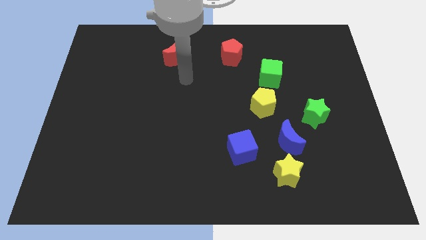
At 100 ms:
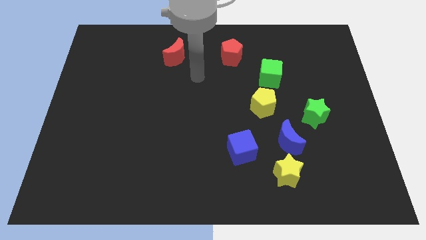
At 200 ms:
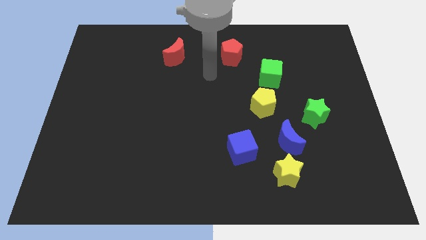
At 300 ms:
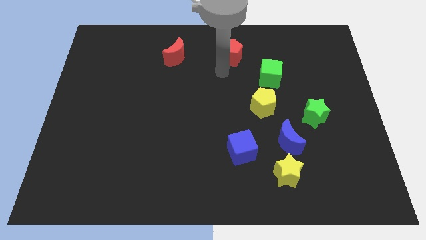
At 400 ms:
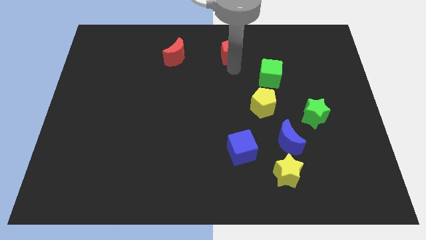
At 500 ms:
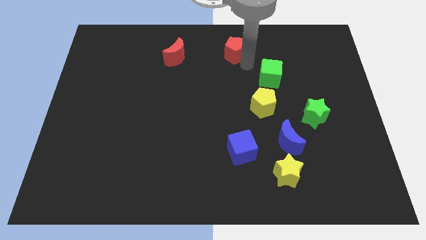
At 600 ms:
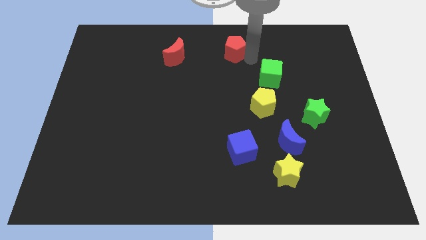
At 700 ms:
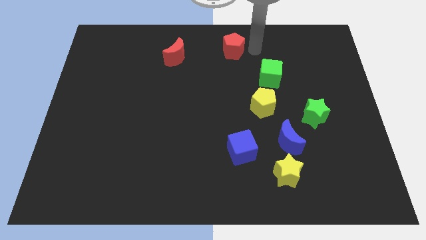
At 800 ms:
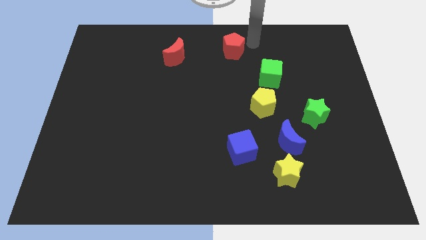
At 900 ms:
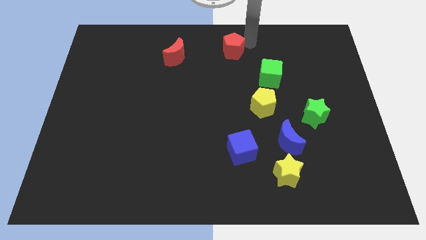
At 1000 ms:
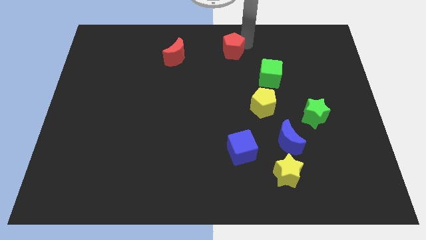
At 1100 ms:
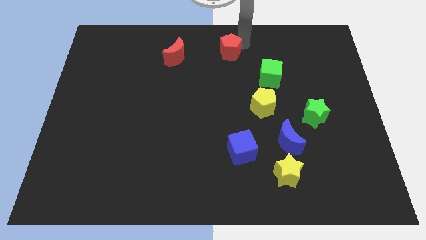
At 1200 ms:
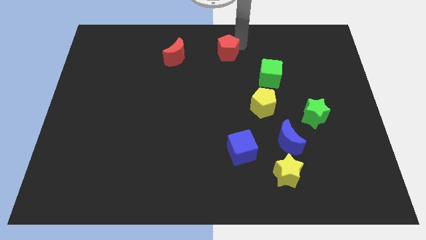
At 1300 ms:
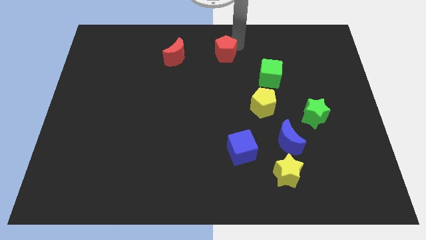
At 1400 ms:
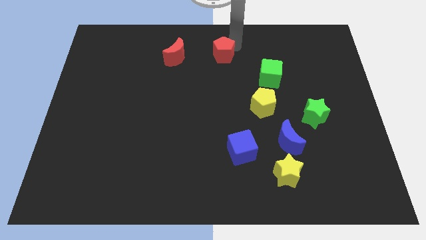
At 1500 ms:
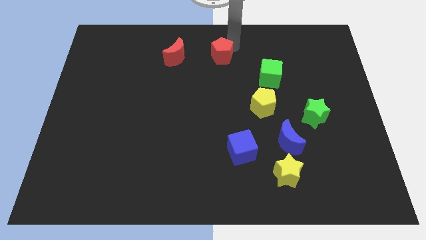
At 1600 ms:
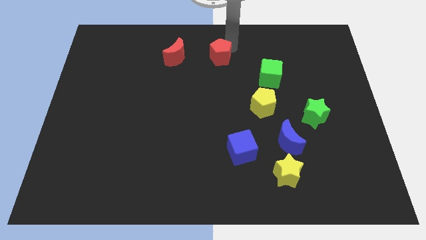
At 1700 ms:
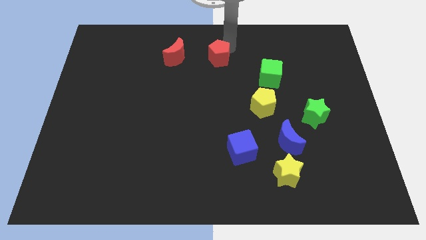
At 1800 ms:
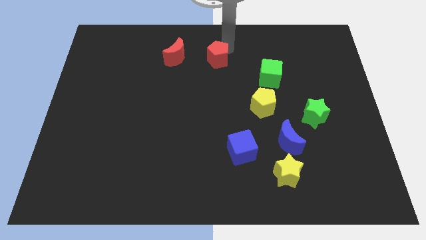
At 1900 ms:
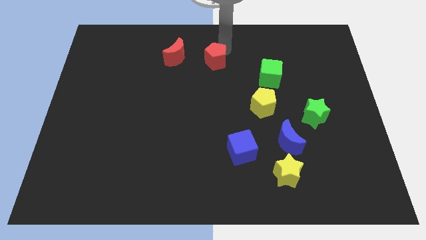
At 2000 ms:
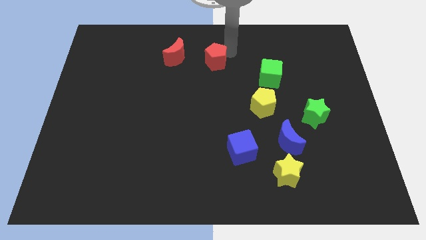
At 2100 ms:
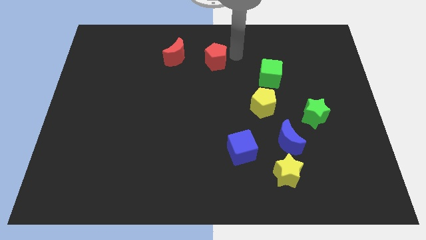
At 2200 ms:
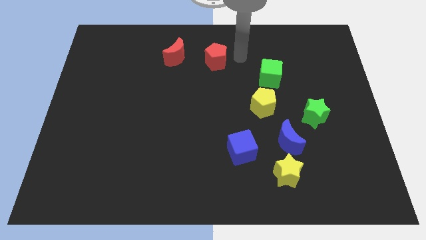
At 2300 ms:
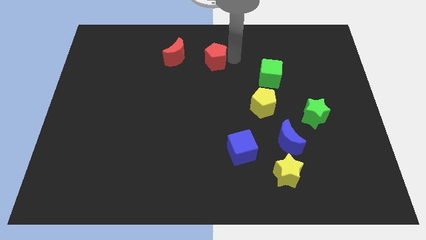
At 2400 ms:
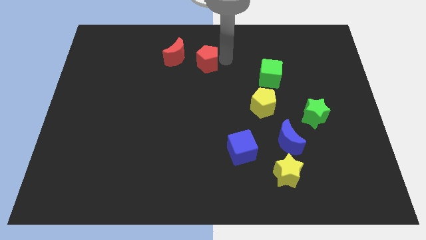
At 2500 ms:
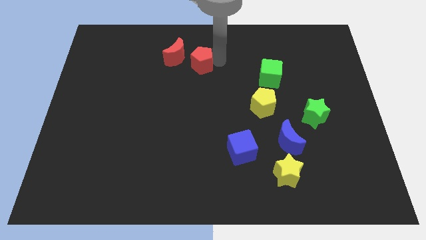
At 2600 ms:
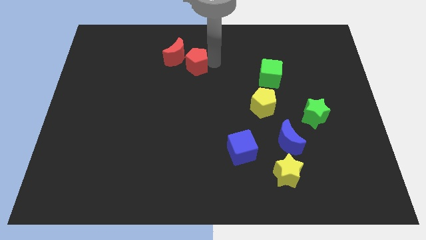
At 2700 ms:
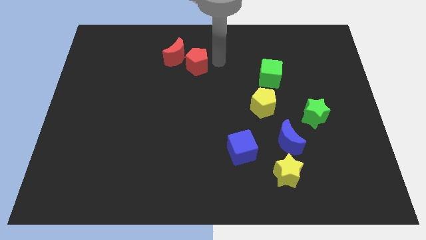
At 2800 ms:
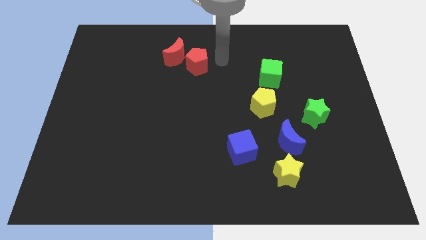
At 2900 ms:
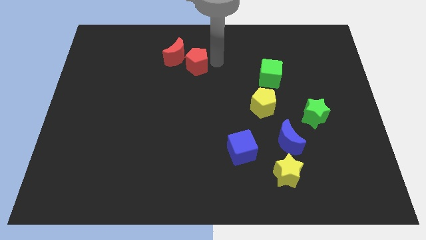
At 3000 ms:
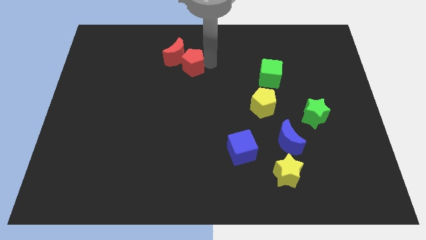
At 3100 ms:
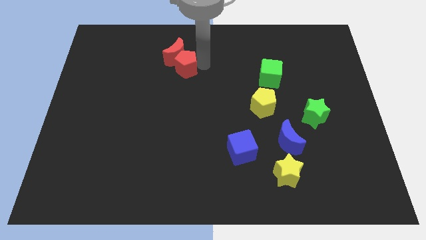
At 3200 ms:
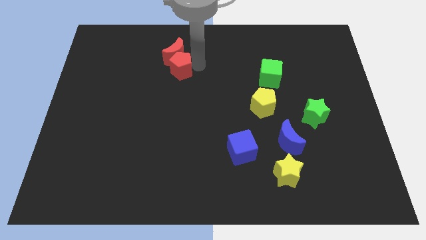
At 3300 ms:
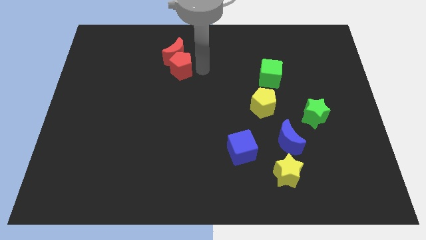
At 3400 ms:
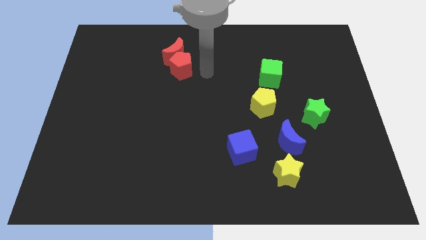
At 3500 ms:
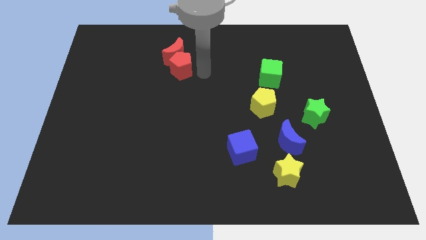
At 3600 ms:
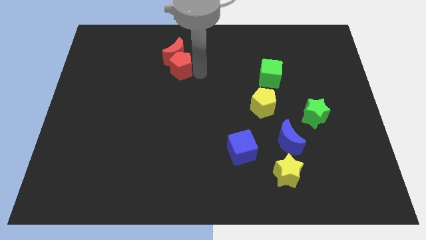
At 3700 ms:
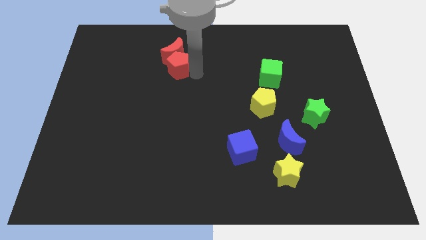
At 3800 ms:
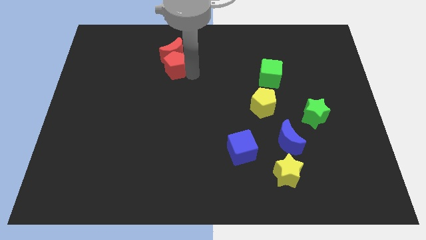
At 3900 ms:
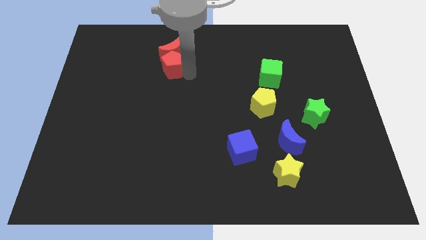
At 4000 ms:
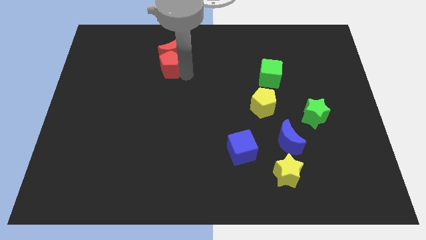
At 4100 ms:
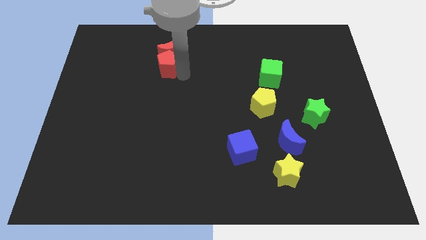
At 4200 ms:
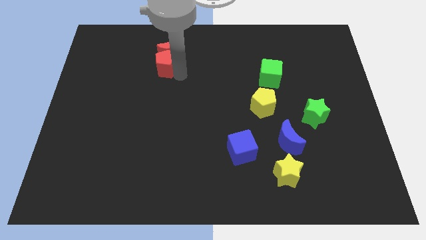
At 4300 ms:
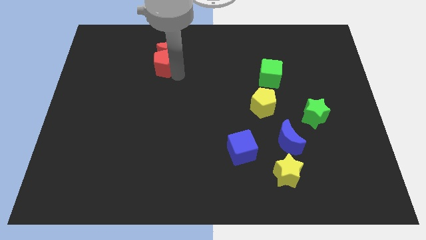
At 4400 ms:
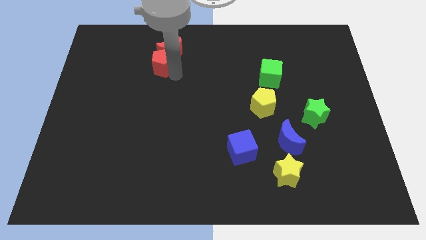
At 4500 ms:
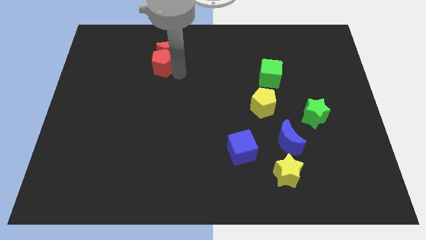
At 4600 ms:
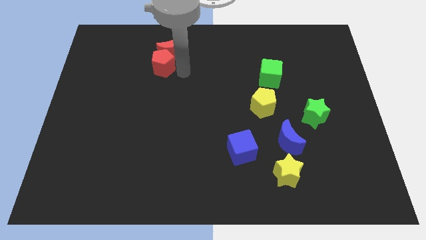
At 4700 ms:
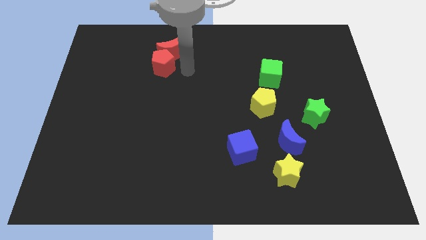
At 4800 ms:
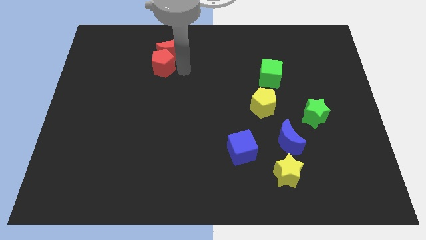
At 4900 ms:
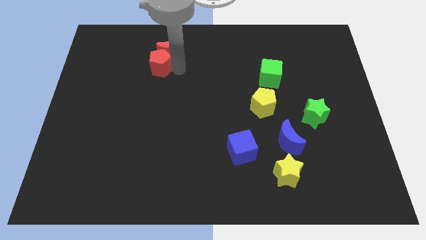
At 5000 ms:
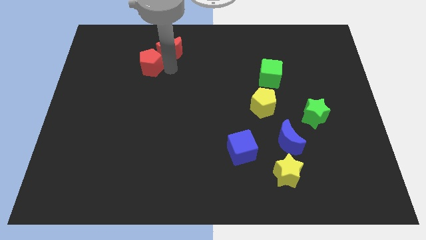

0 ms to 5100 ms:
slide the red pentagon left

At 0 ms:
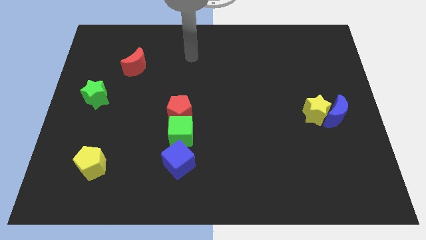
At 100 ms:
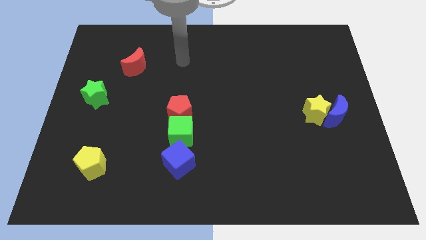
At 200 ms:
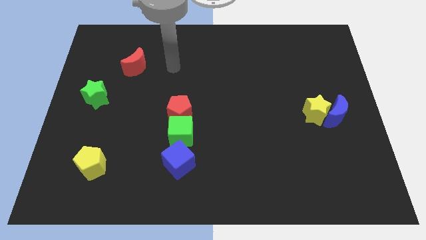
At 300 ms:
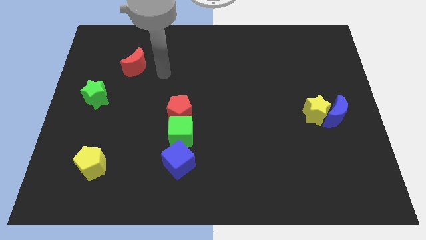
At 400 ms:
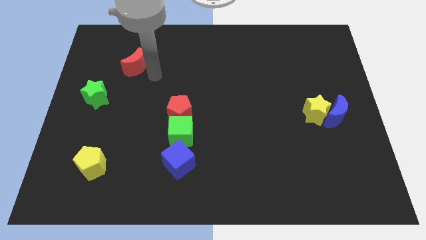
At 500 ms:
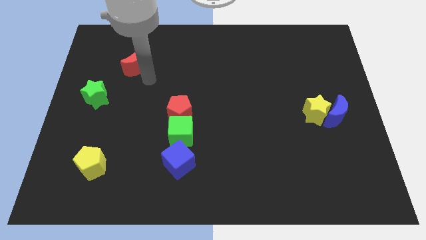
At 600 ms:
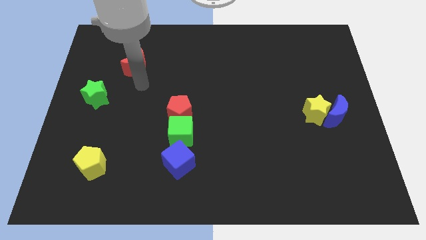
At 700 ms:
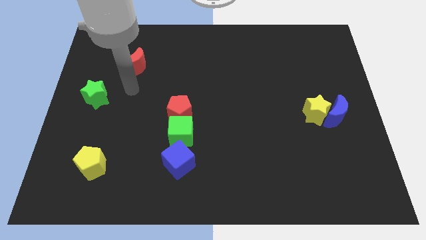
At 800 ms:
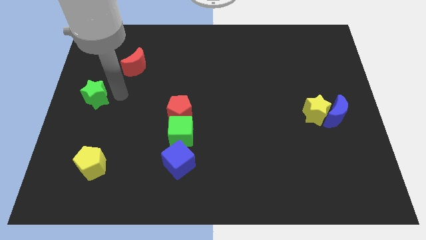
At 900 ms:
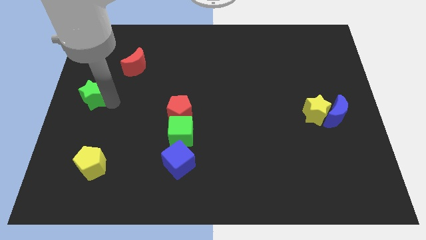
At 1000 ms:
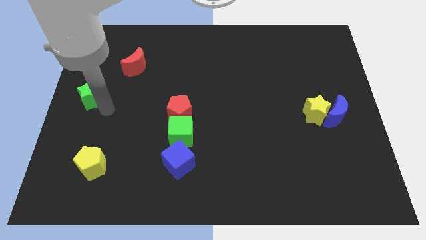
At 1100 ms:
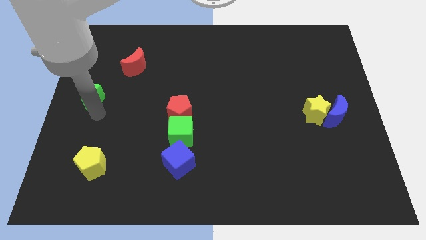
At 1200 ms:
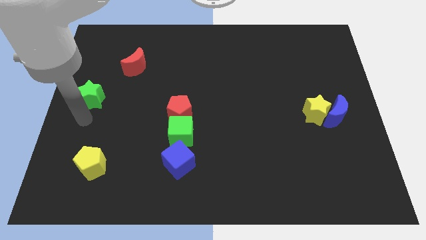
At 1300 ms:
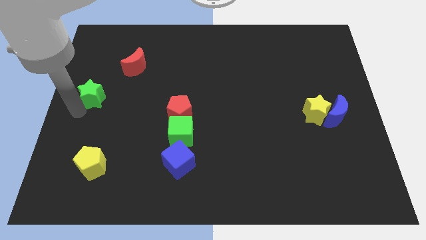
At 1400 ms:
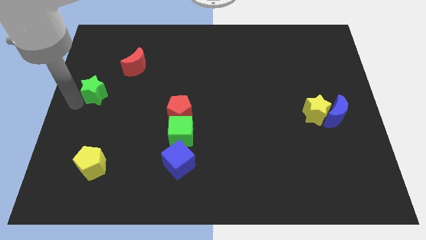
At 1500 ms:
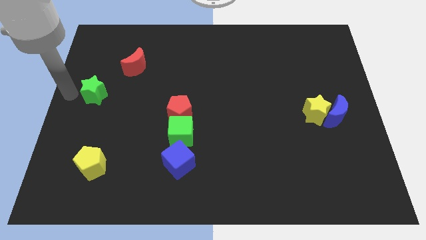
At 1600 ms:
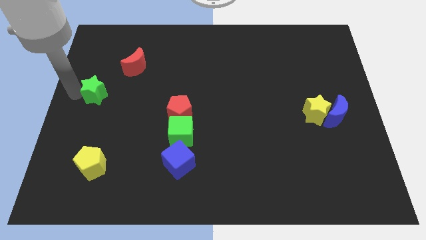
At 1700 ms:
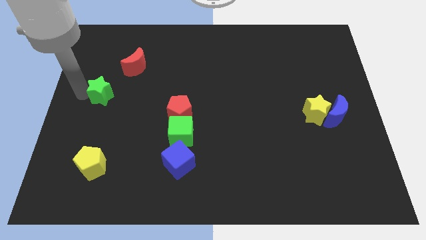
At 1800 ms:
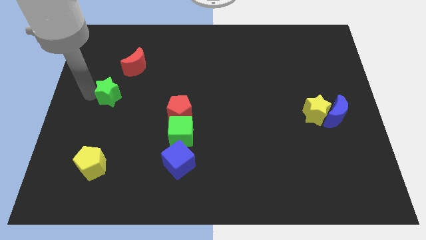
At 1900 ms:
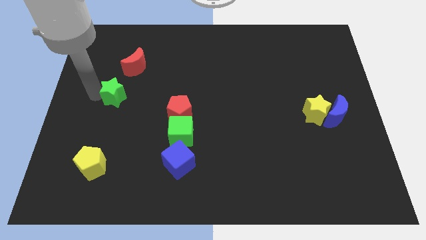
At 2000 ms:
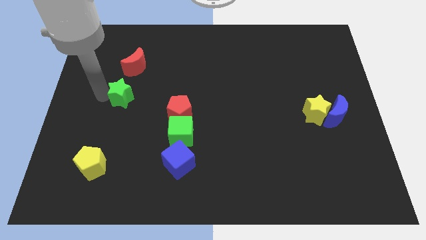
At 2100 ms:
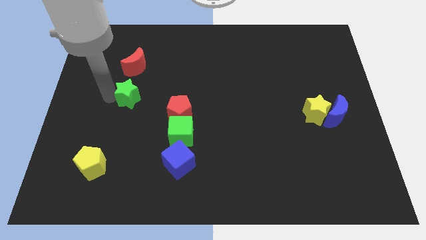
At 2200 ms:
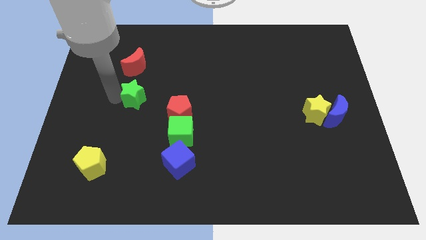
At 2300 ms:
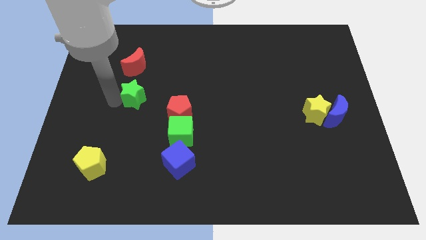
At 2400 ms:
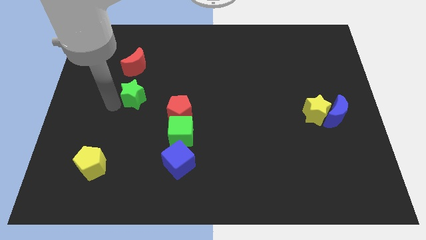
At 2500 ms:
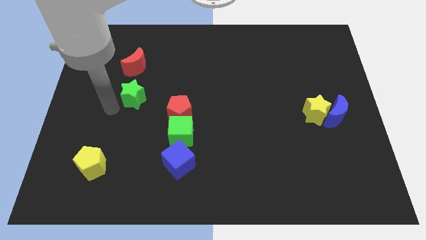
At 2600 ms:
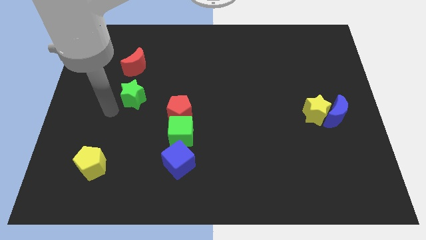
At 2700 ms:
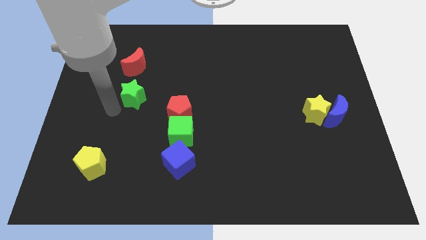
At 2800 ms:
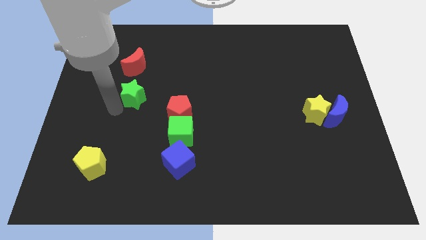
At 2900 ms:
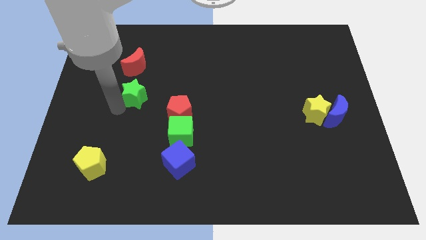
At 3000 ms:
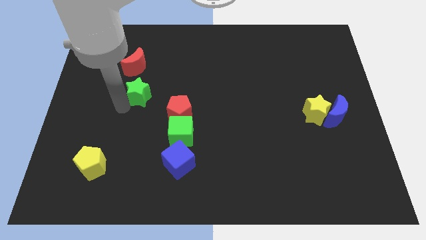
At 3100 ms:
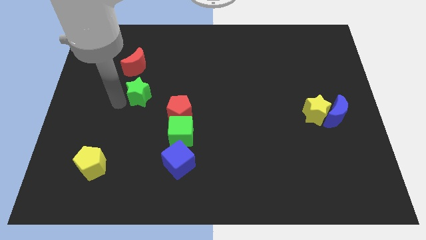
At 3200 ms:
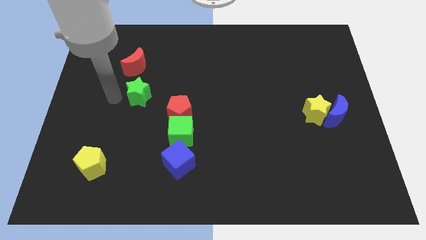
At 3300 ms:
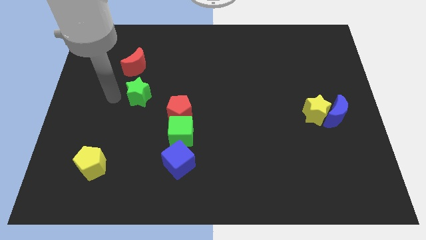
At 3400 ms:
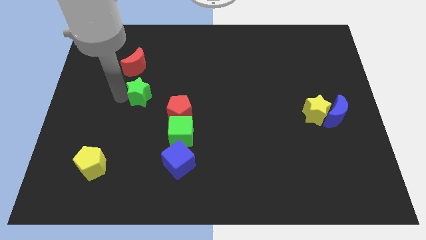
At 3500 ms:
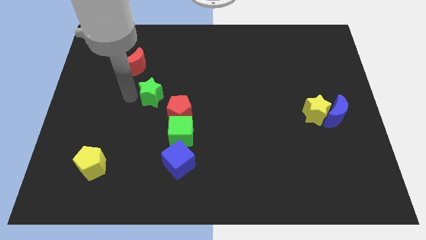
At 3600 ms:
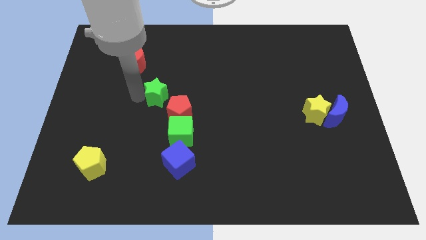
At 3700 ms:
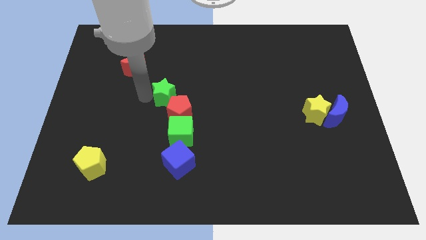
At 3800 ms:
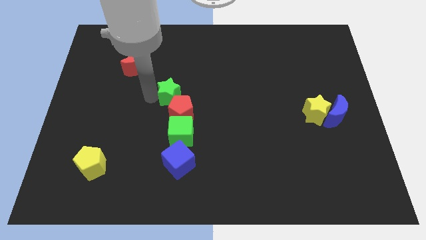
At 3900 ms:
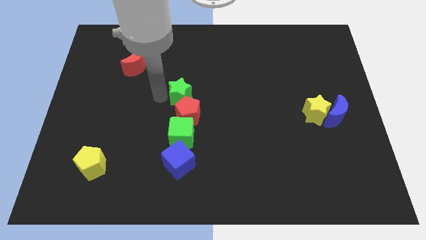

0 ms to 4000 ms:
push the green star right
